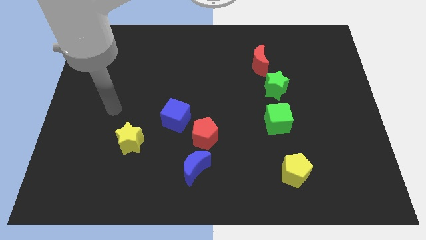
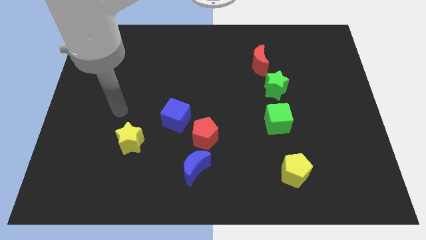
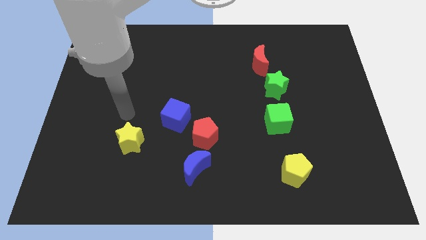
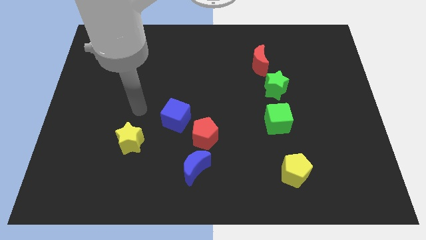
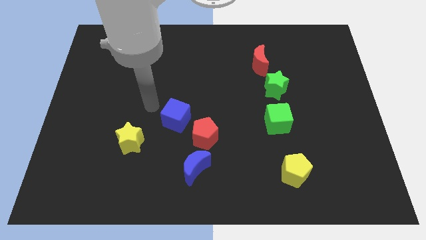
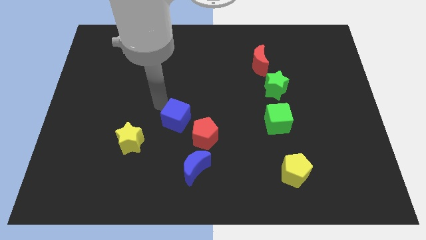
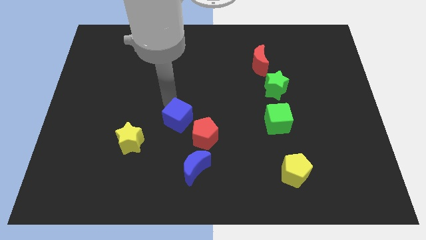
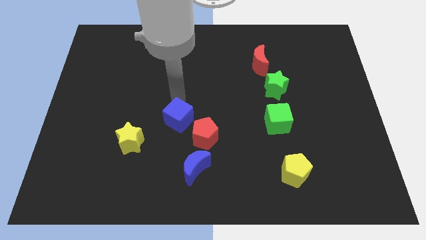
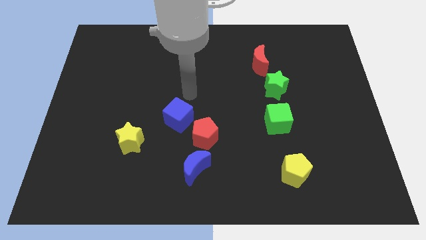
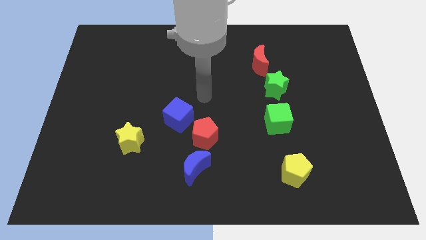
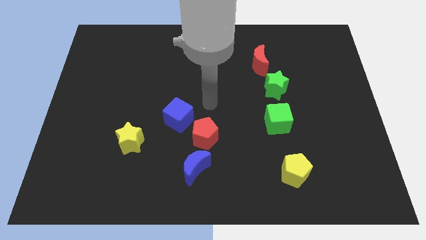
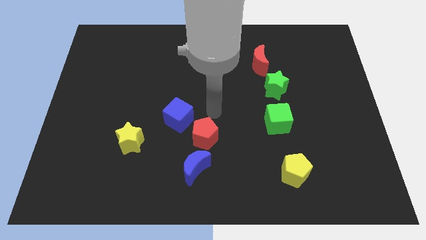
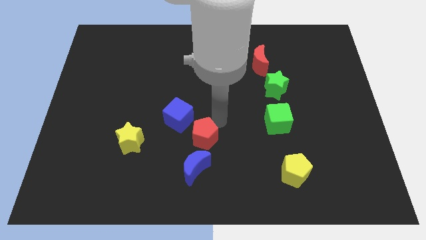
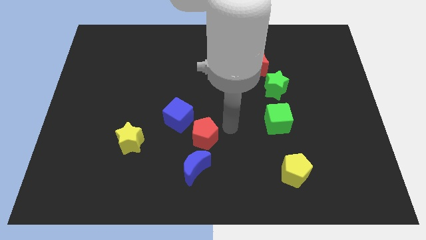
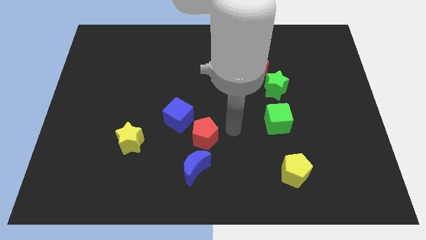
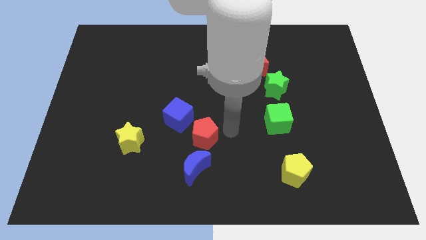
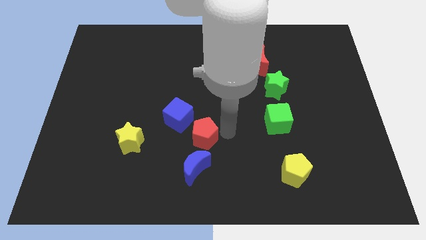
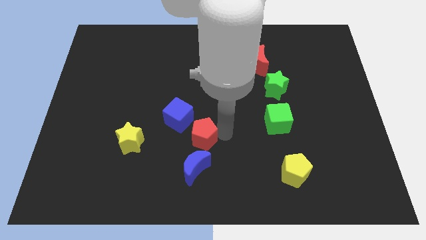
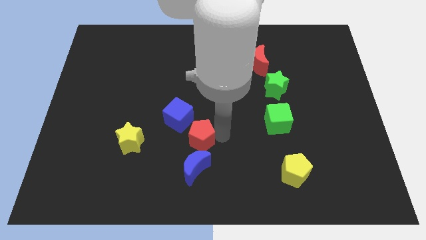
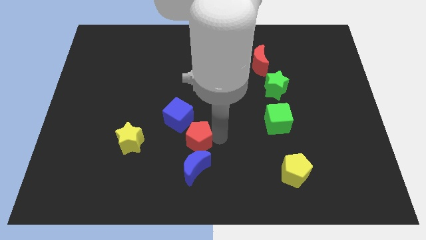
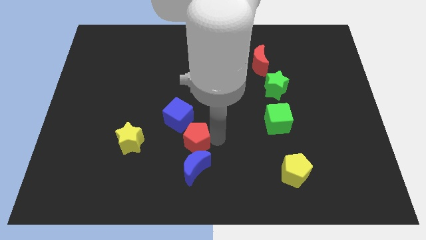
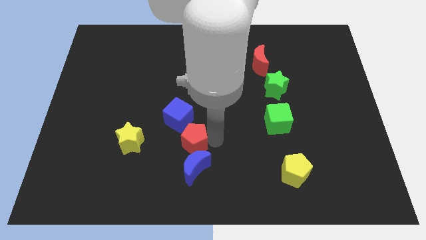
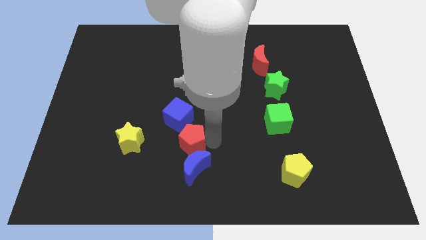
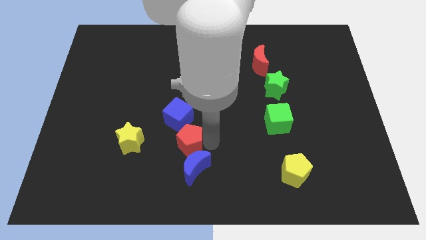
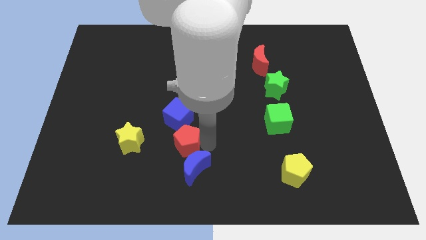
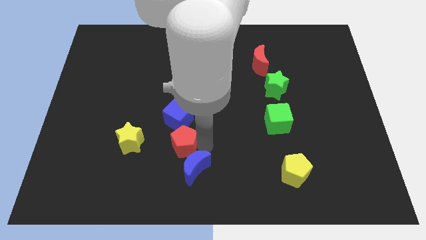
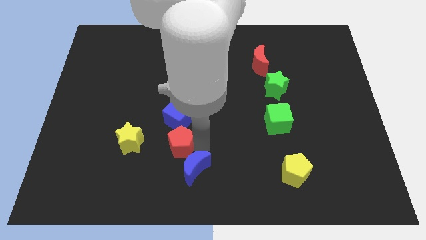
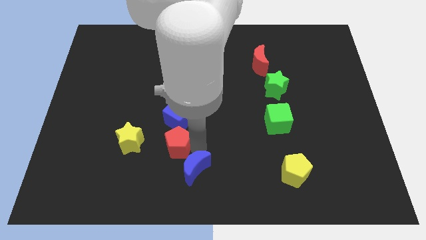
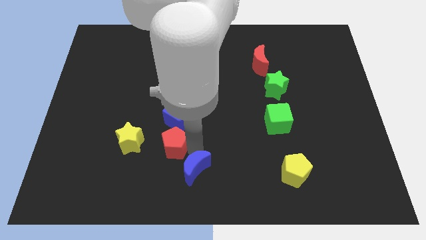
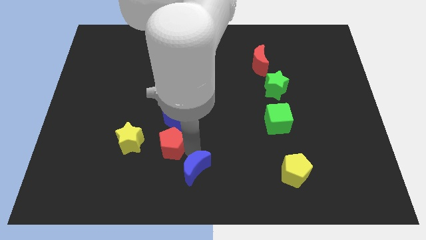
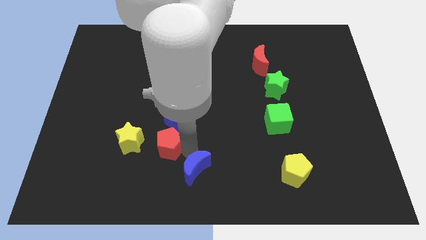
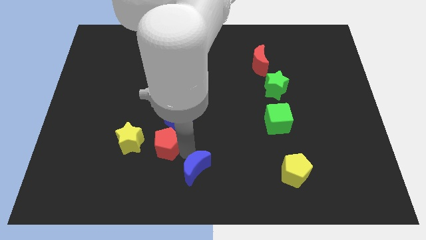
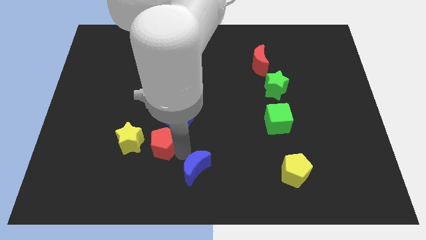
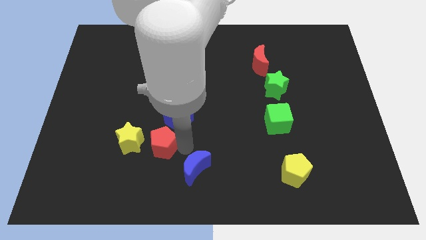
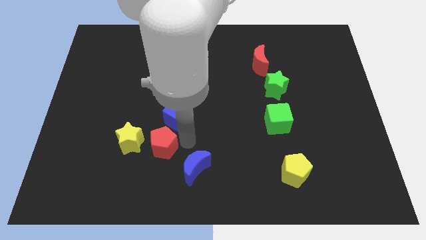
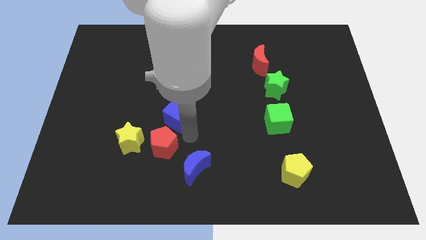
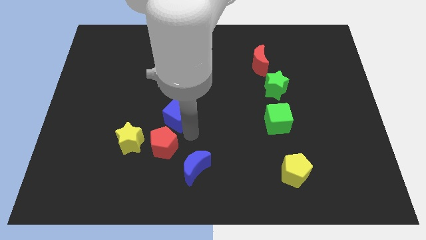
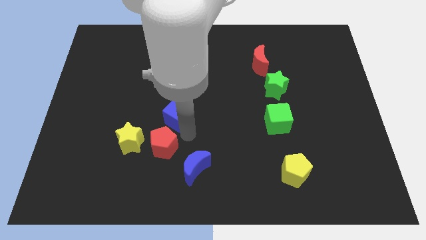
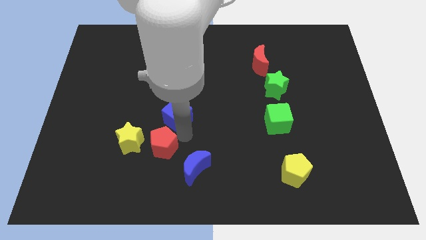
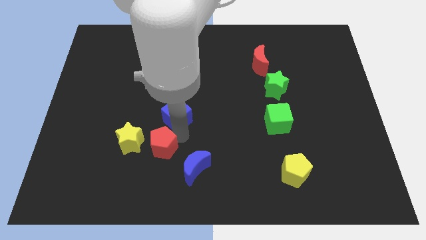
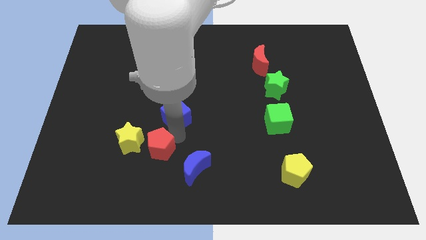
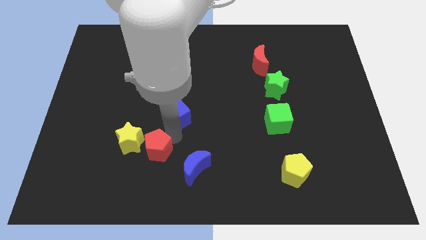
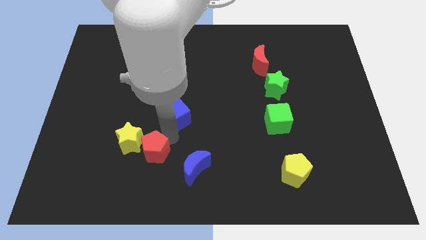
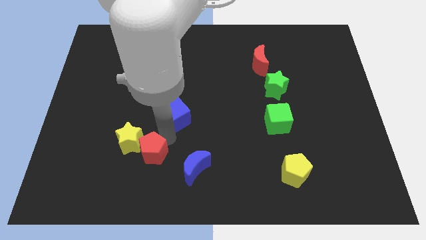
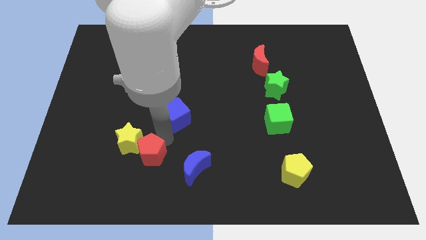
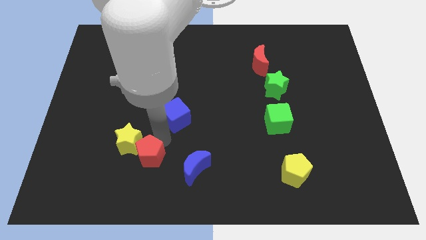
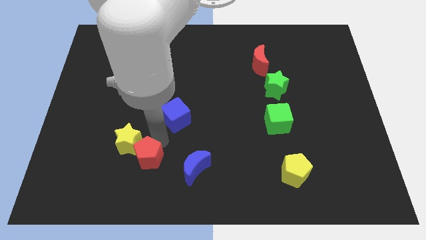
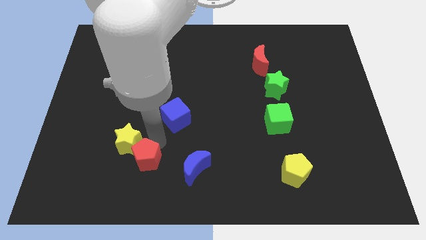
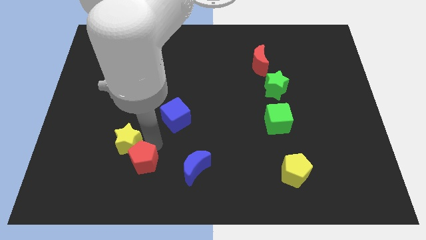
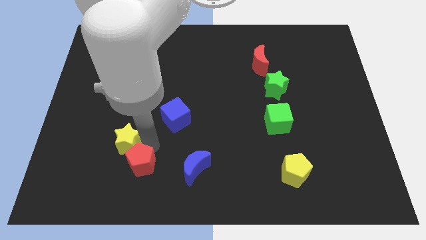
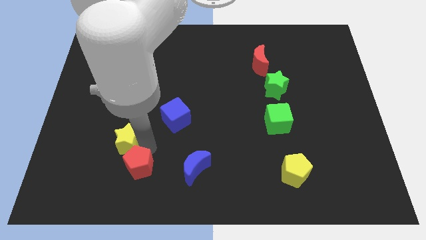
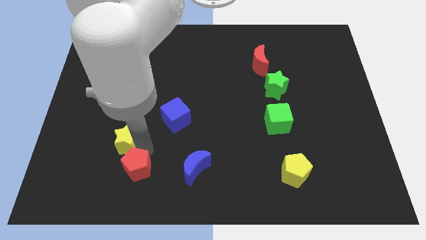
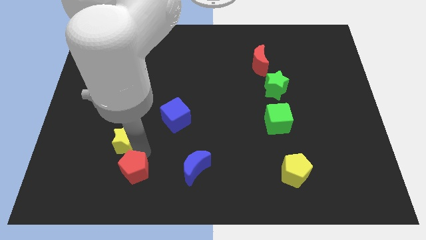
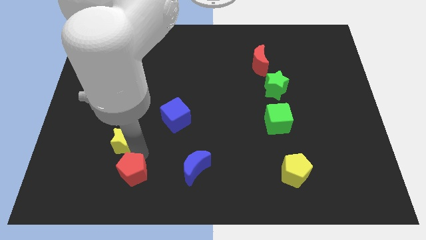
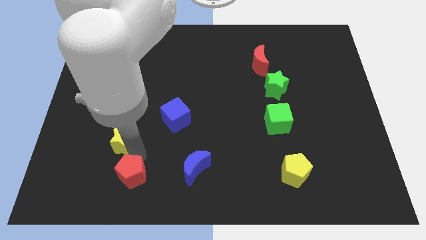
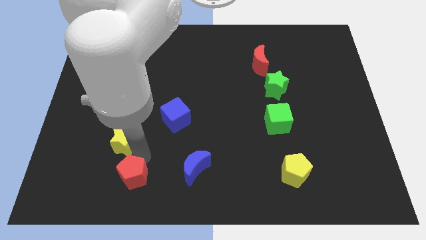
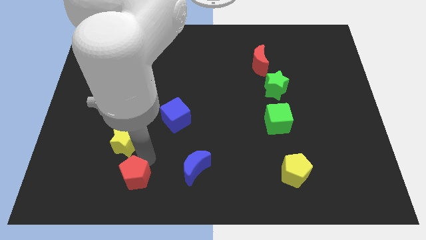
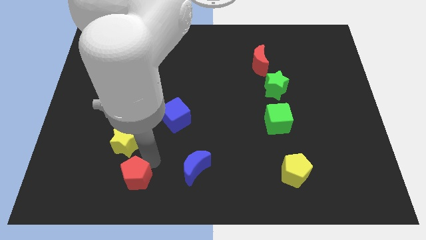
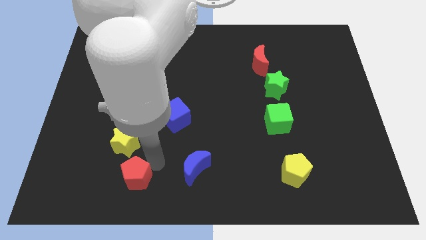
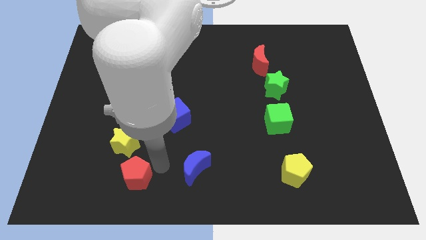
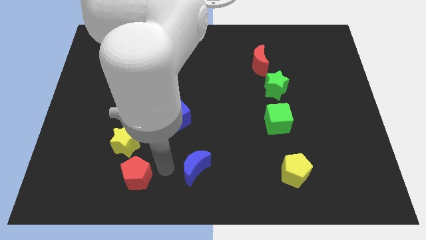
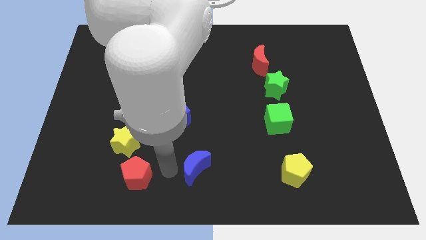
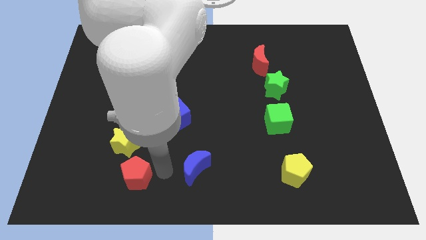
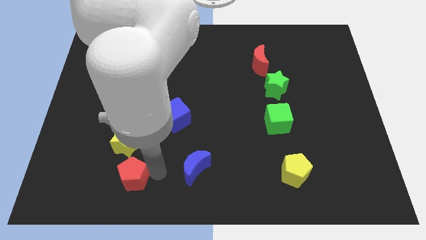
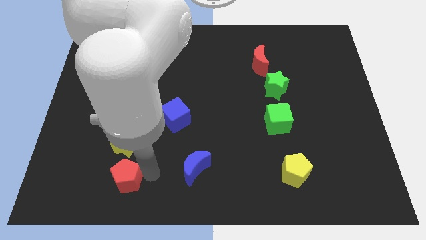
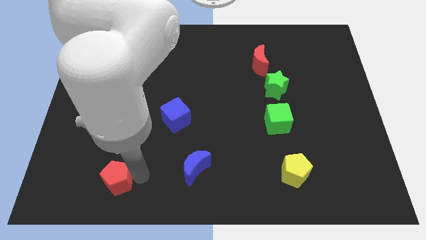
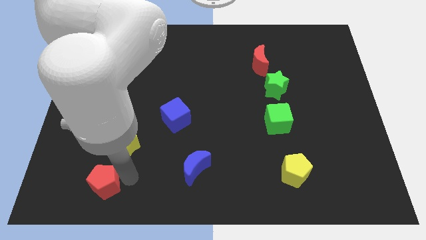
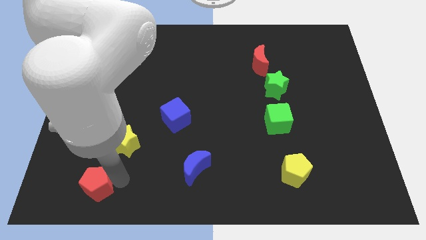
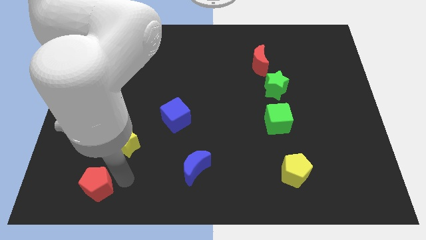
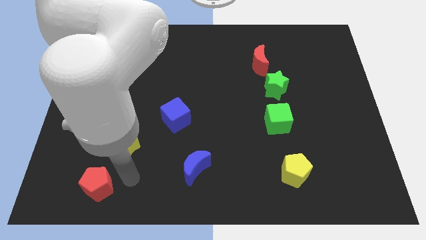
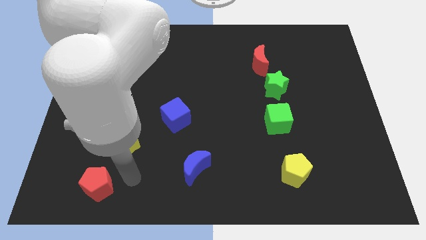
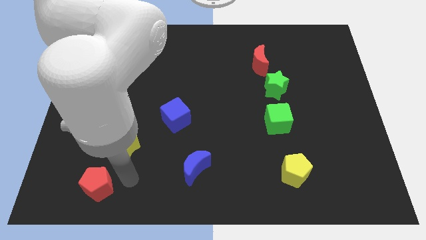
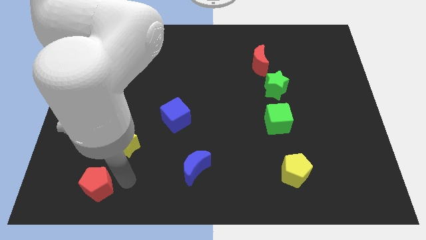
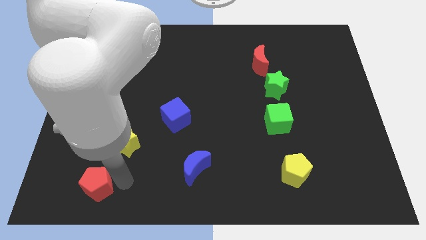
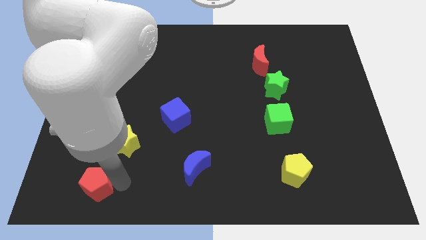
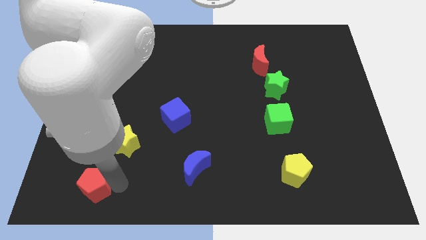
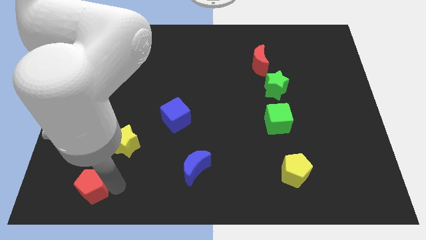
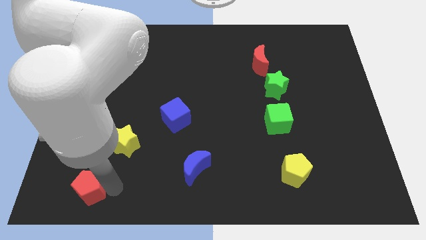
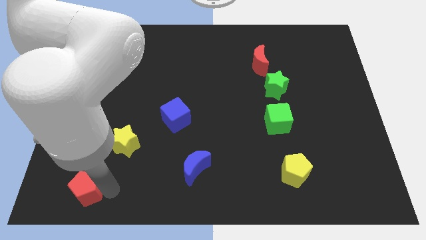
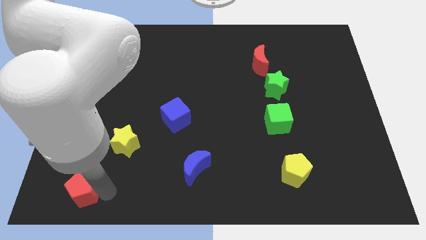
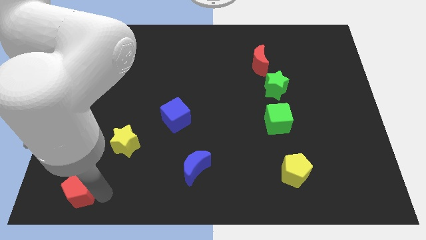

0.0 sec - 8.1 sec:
slide the red pentagon to the bottom left of the board
